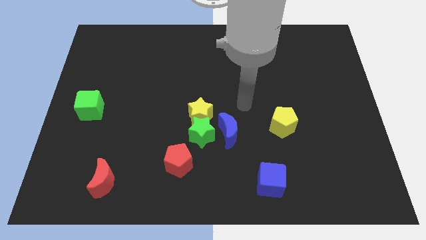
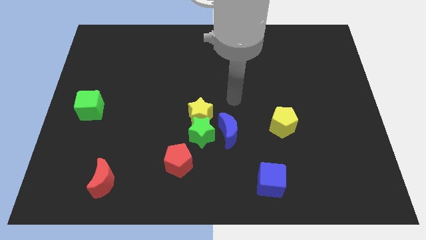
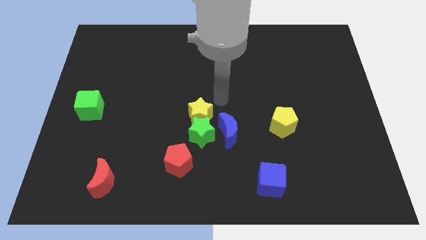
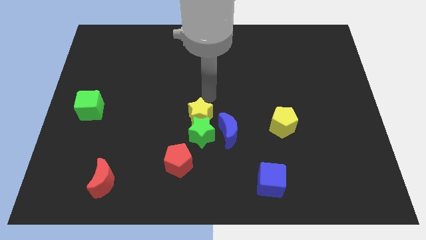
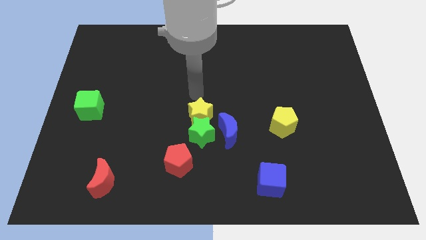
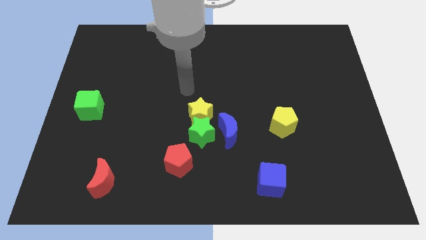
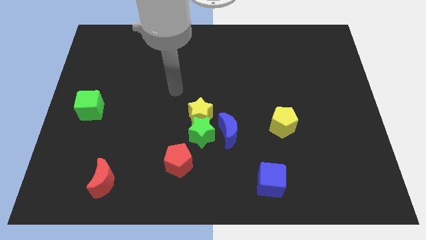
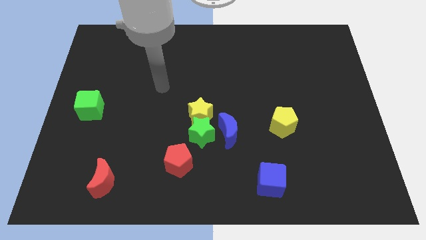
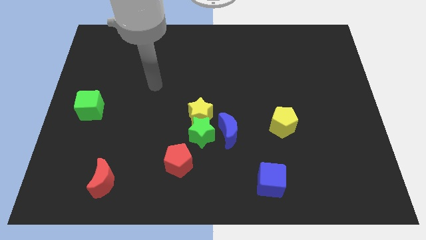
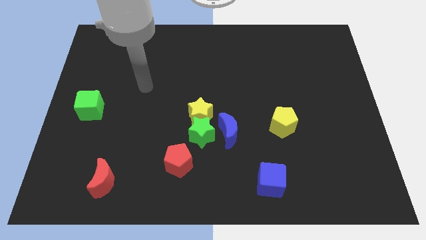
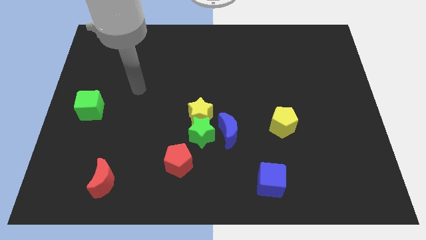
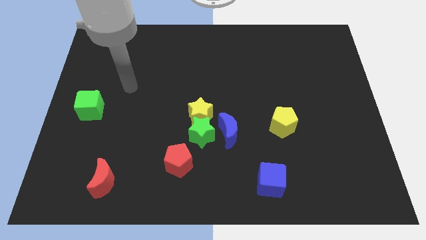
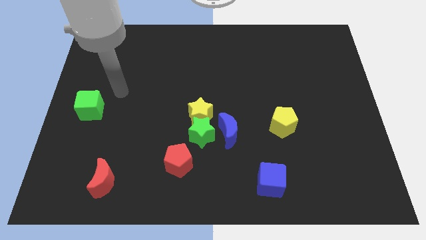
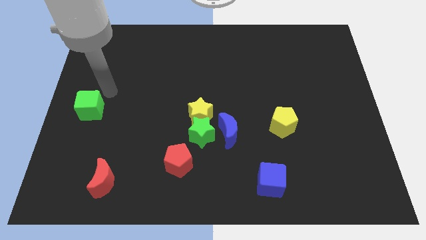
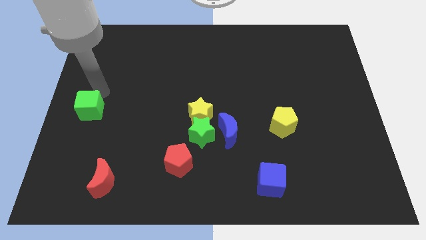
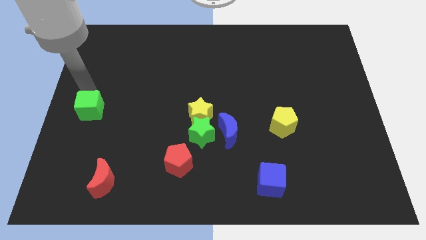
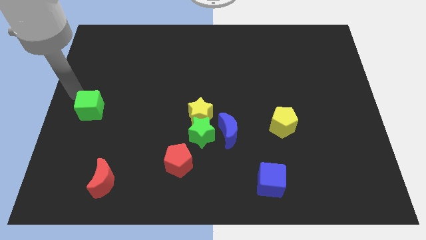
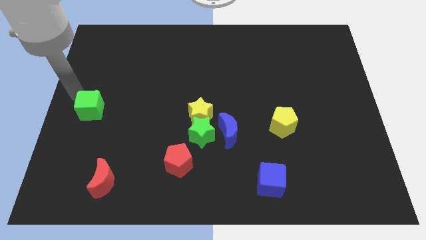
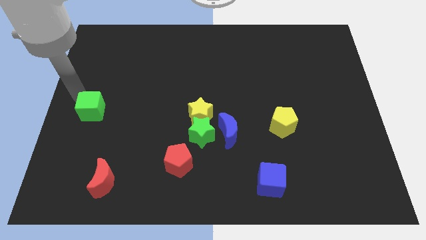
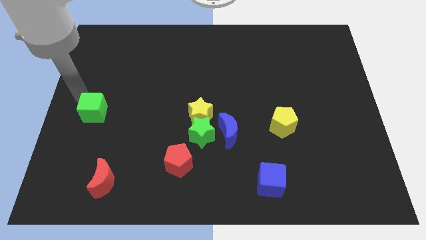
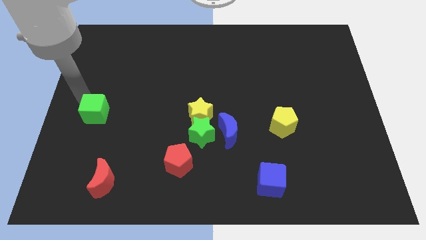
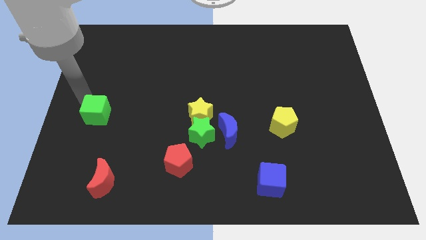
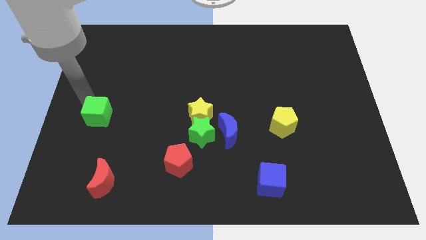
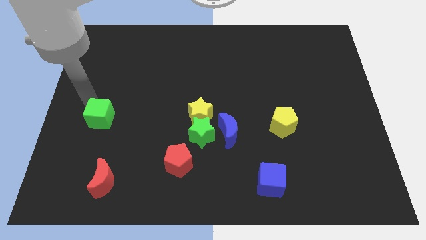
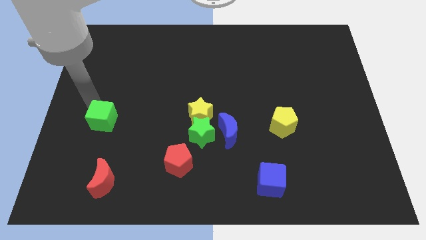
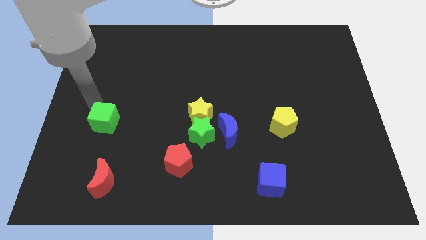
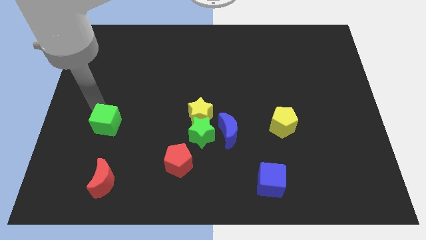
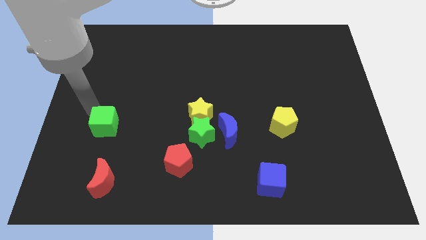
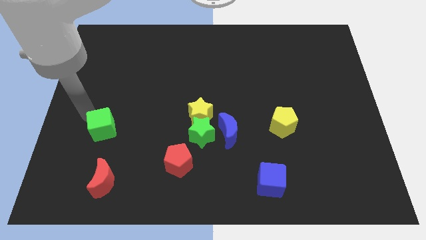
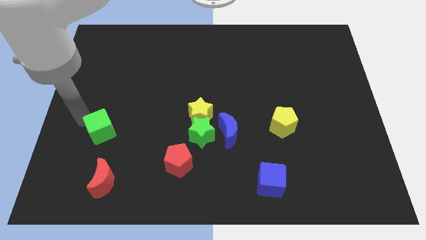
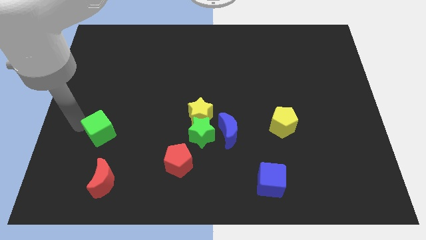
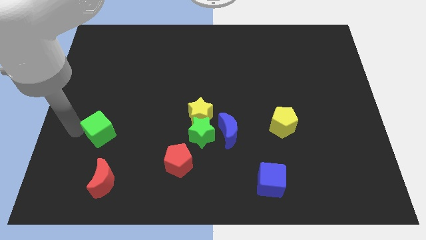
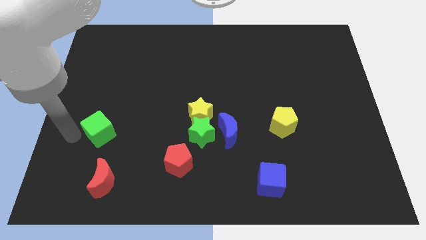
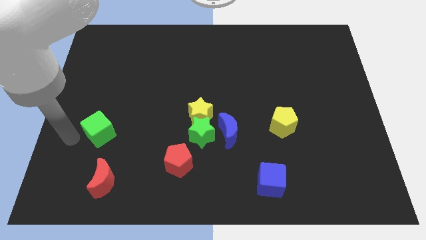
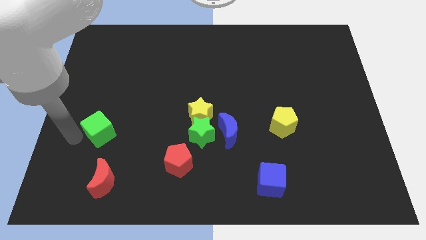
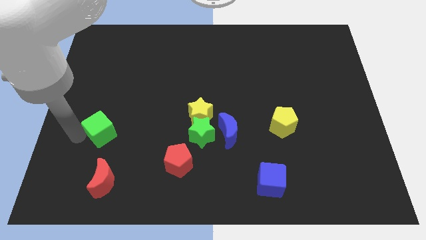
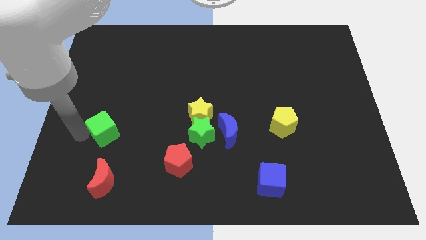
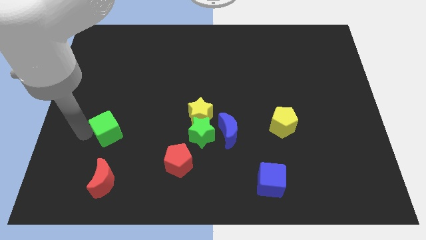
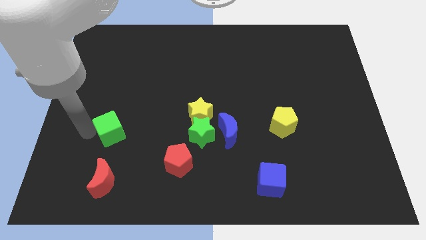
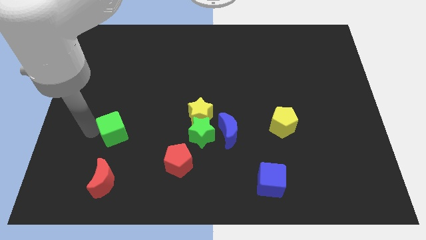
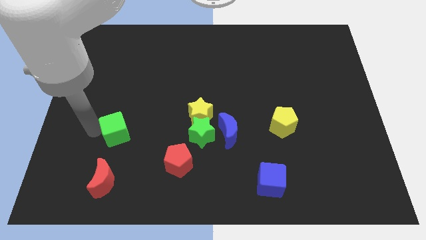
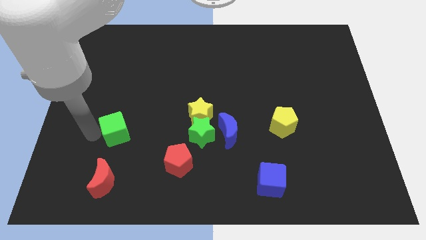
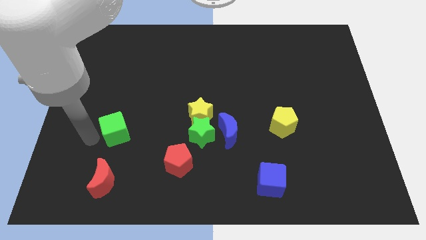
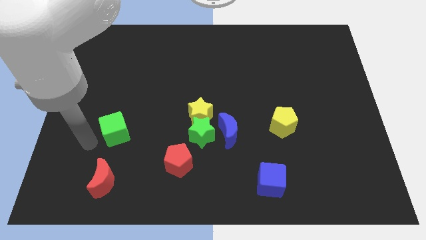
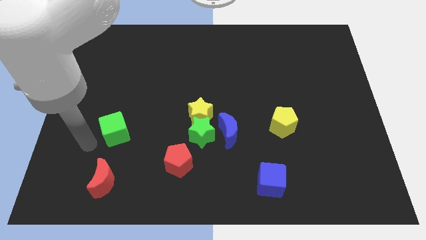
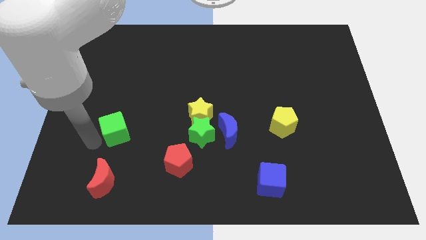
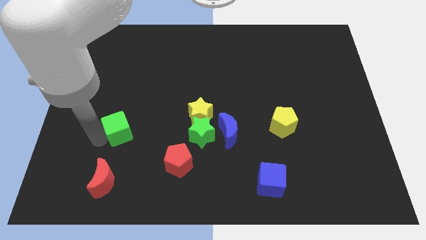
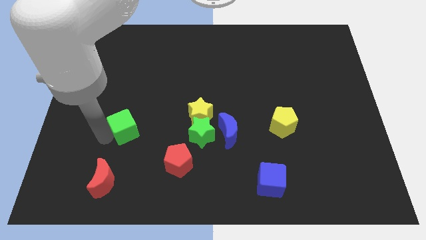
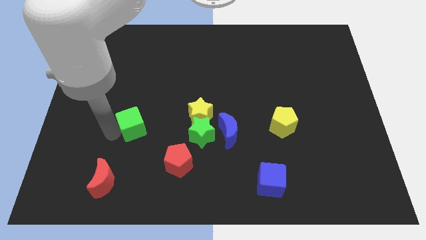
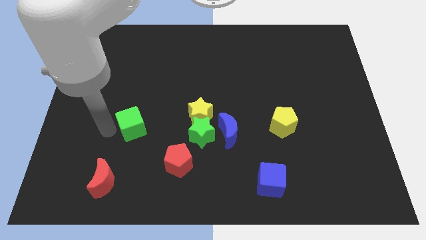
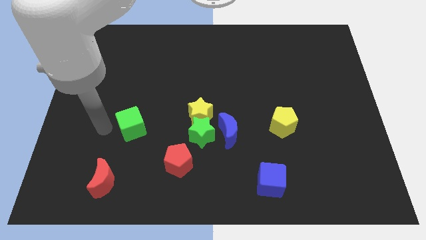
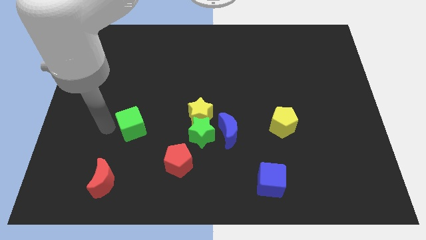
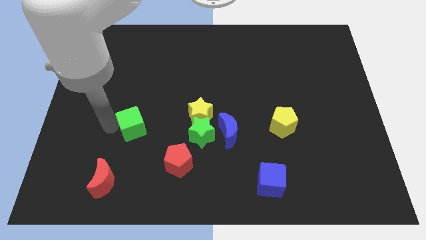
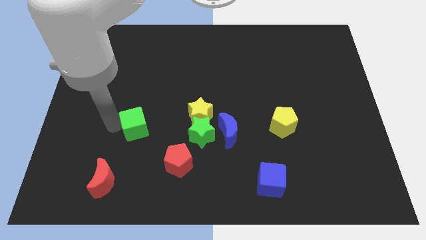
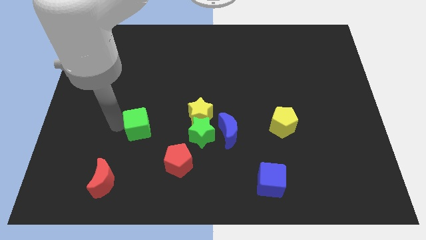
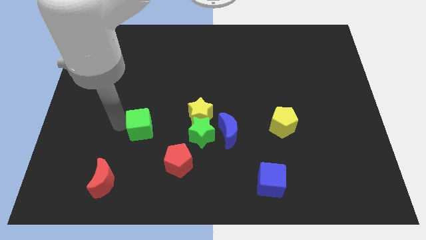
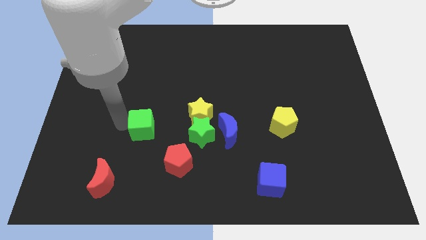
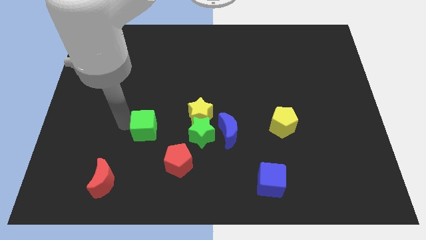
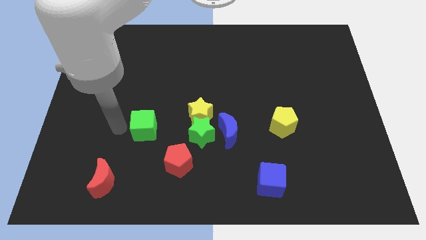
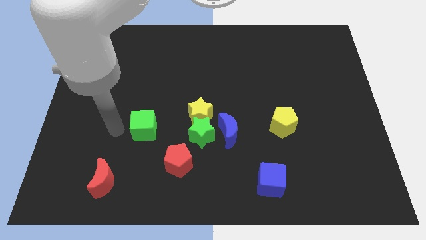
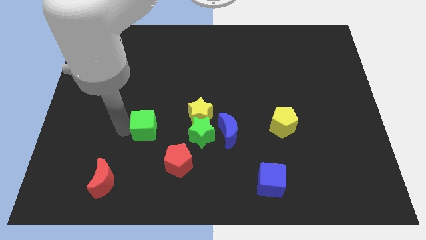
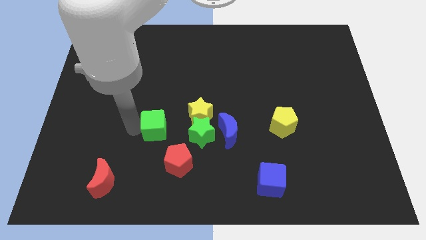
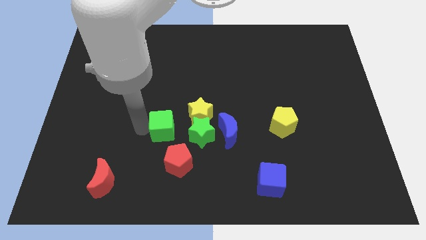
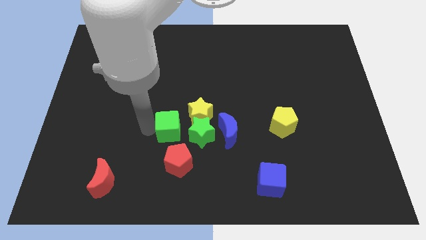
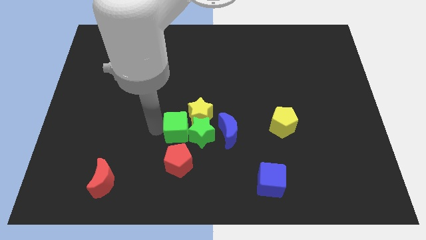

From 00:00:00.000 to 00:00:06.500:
put the green cube close to the green star

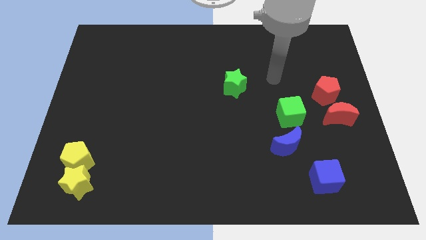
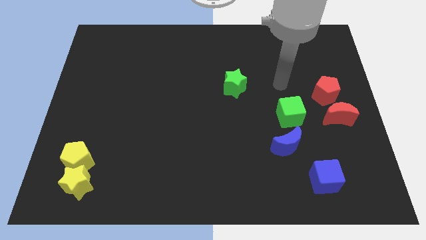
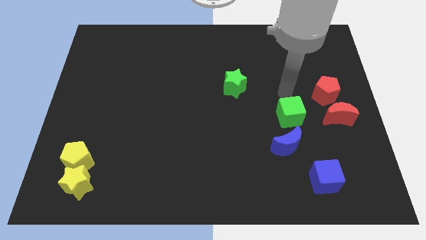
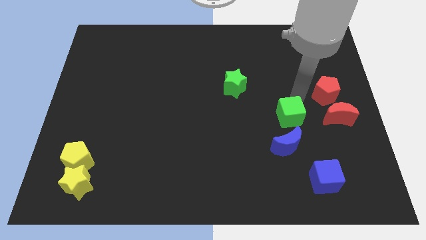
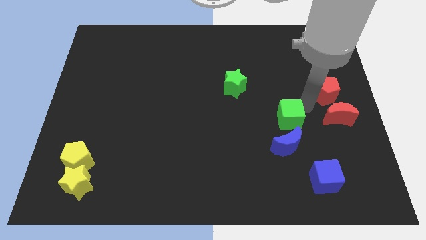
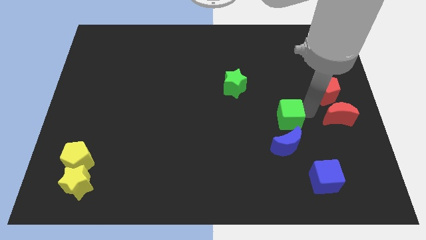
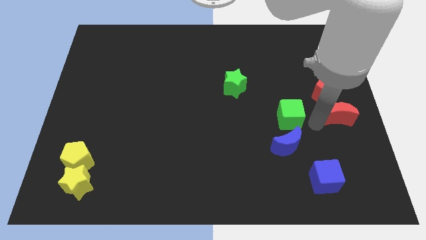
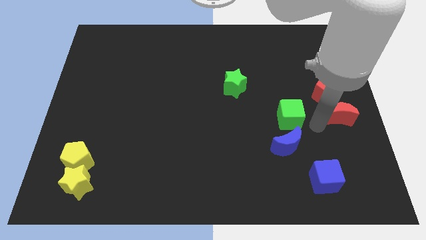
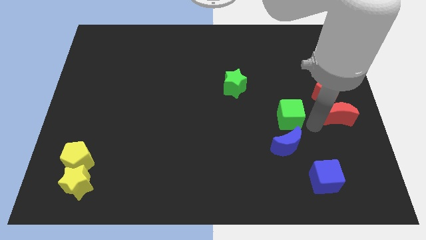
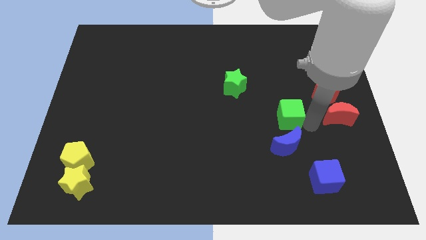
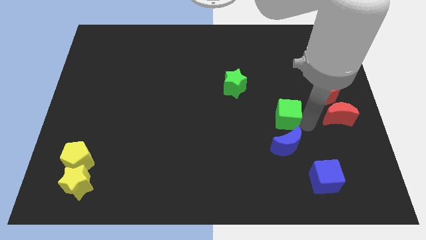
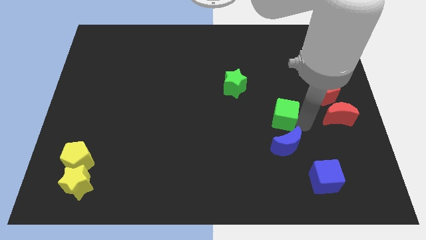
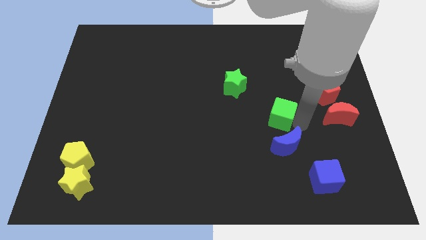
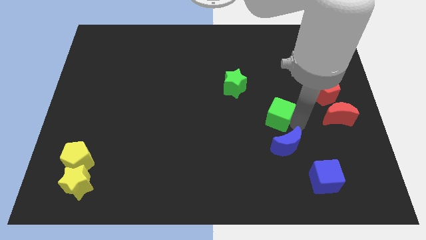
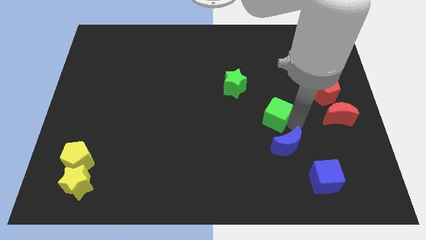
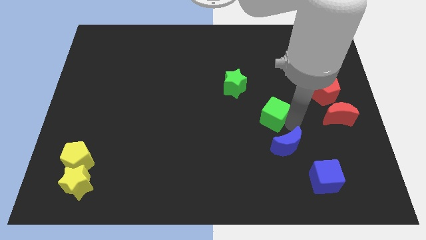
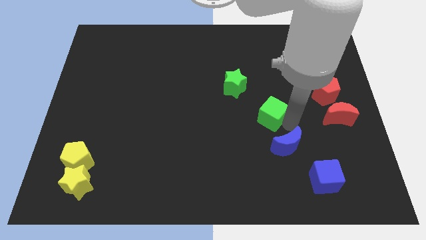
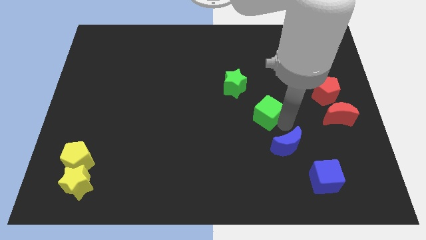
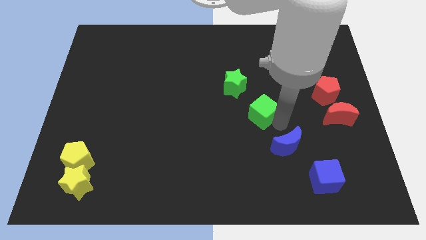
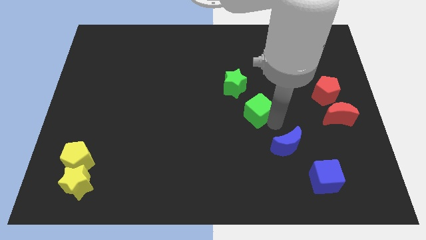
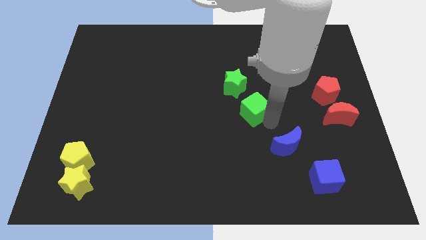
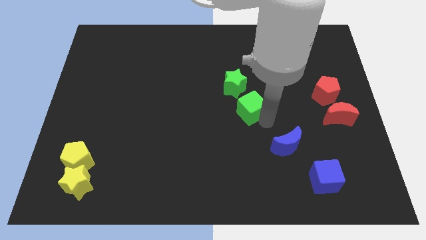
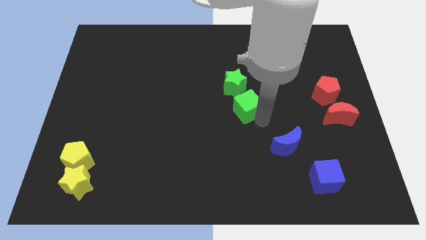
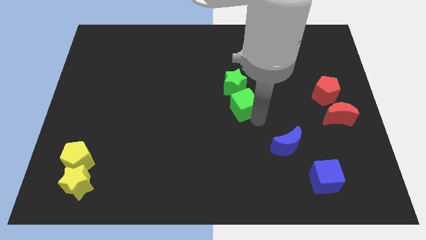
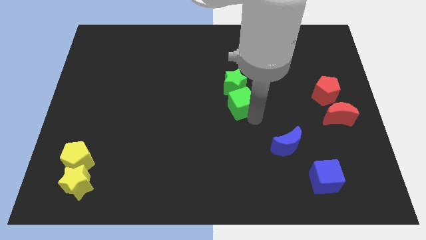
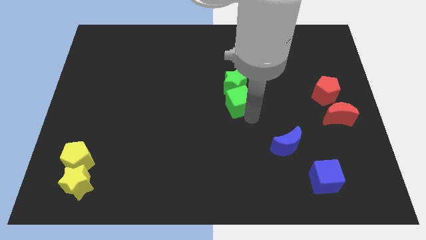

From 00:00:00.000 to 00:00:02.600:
slide the green cube close to the green star
